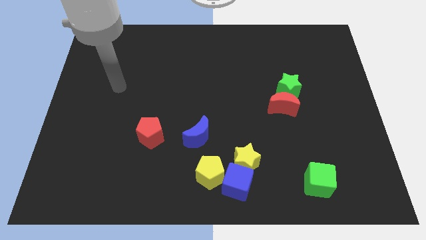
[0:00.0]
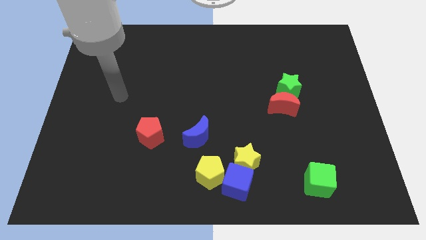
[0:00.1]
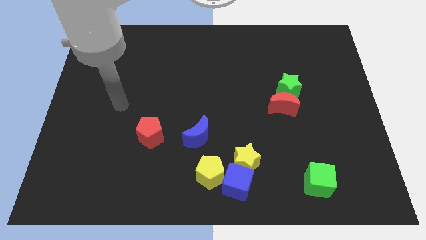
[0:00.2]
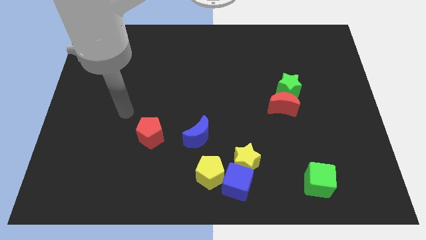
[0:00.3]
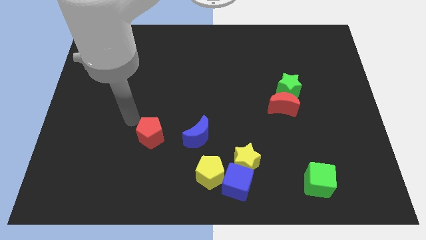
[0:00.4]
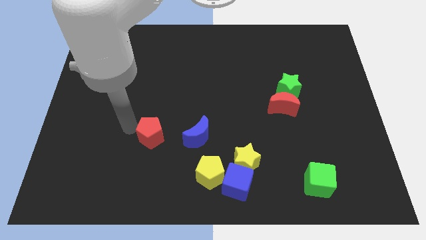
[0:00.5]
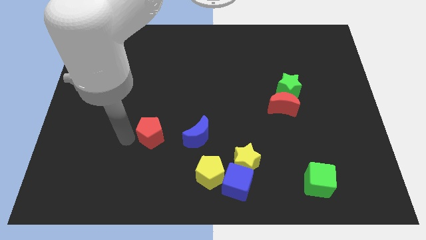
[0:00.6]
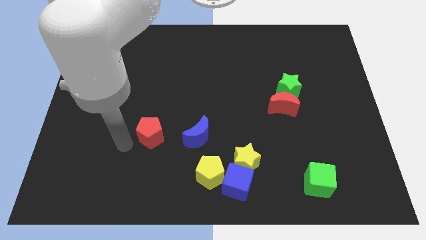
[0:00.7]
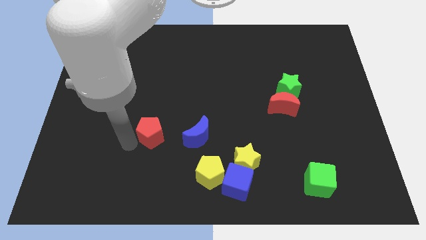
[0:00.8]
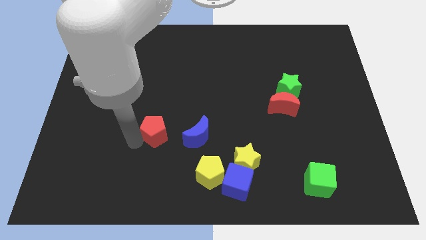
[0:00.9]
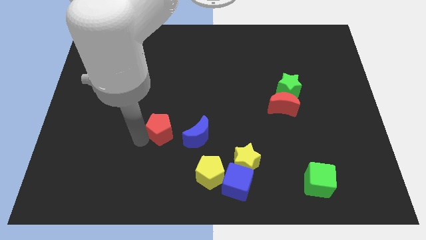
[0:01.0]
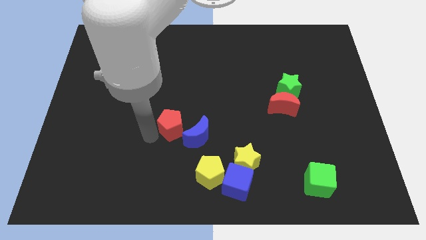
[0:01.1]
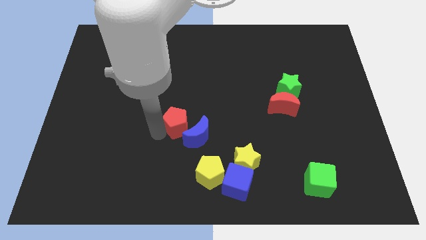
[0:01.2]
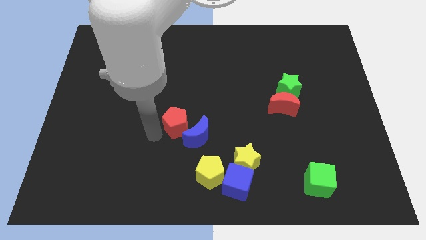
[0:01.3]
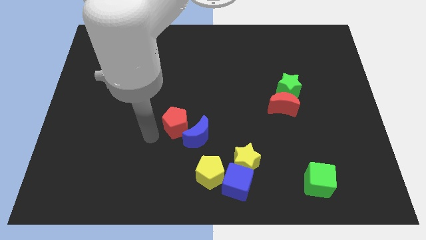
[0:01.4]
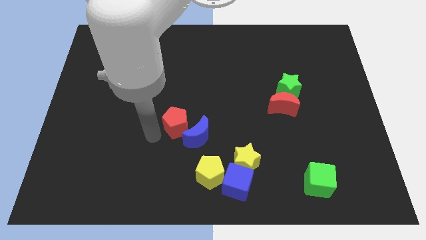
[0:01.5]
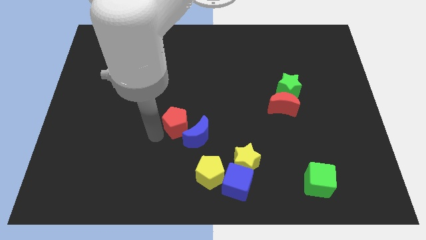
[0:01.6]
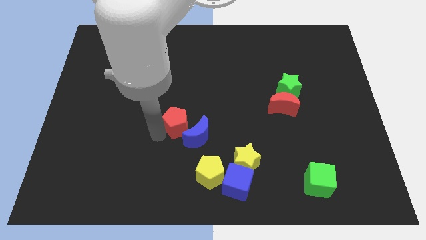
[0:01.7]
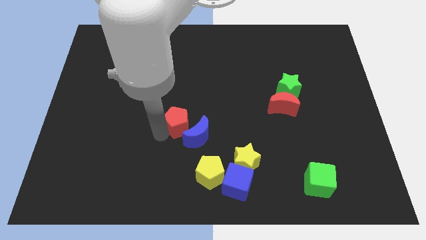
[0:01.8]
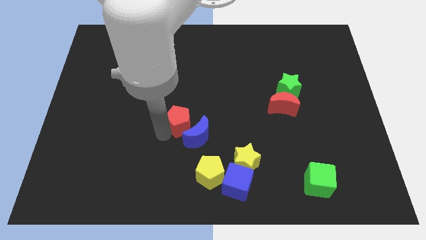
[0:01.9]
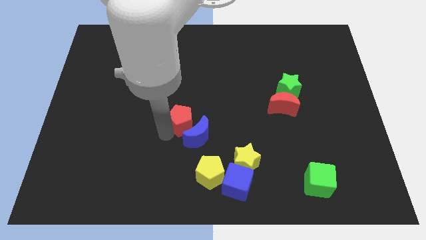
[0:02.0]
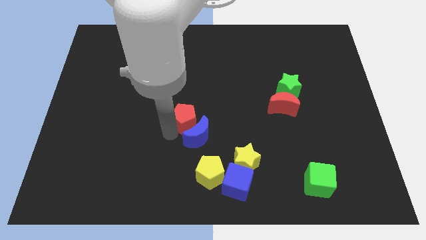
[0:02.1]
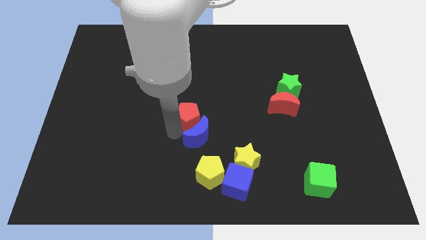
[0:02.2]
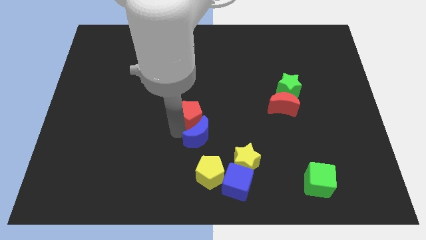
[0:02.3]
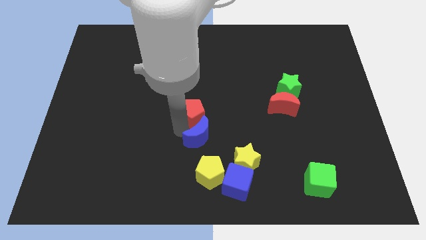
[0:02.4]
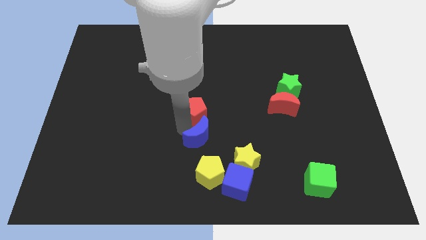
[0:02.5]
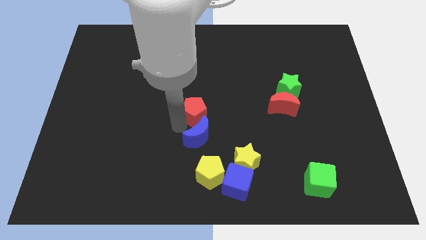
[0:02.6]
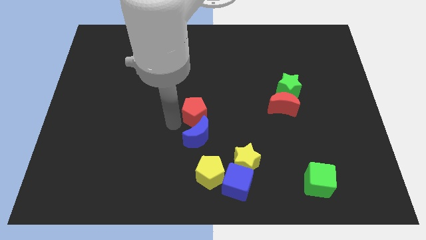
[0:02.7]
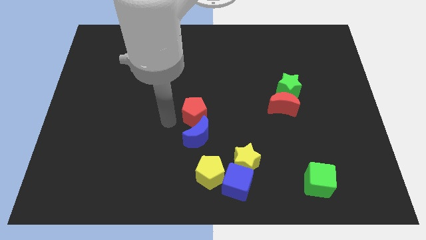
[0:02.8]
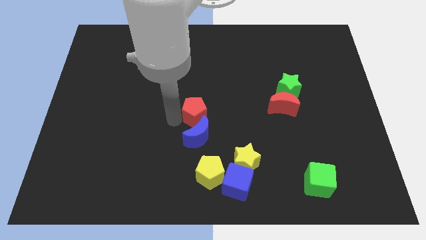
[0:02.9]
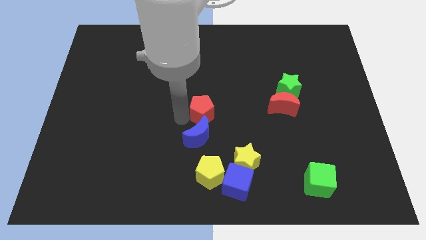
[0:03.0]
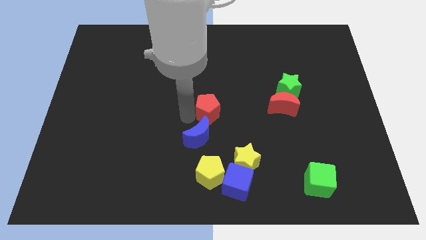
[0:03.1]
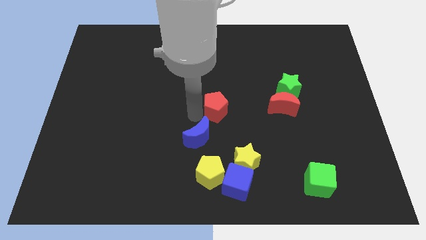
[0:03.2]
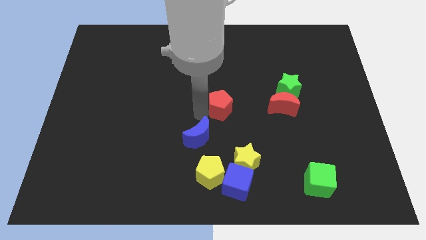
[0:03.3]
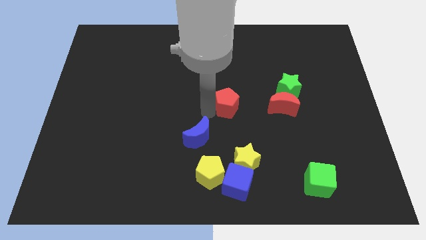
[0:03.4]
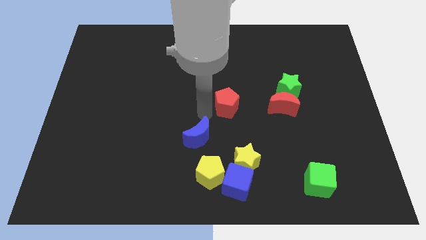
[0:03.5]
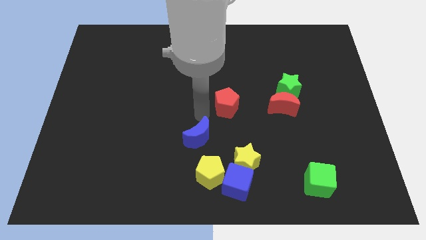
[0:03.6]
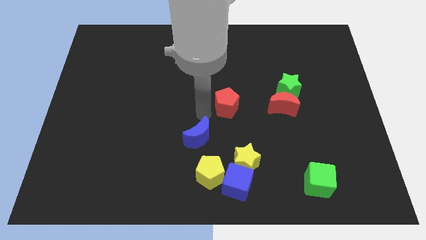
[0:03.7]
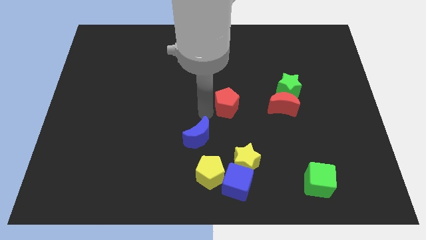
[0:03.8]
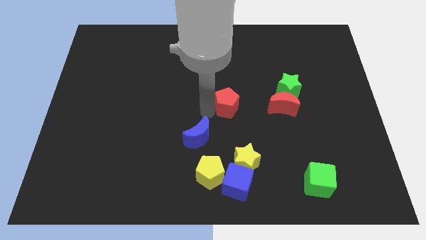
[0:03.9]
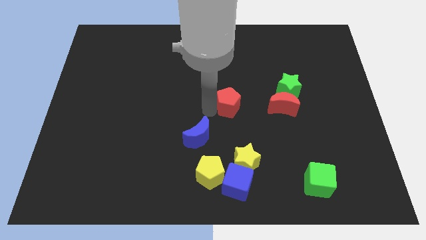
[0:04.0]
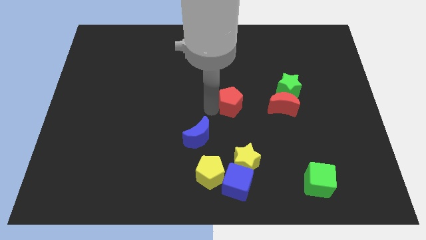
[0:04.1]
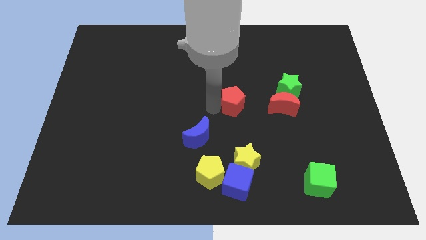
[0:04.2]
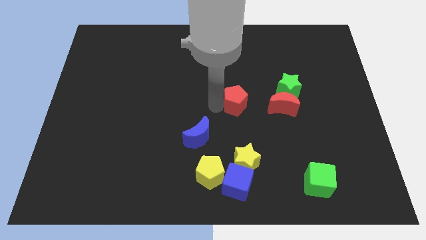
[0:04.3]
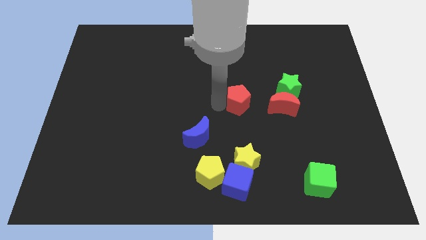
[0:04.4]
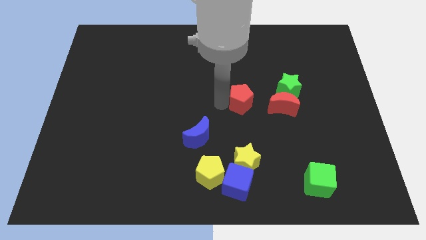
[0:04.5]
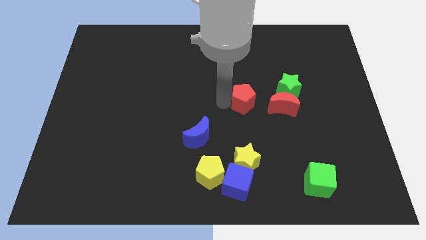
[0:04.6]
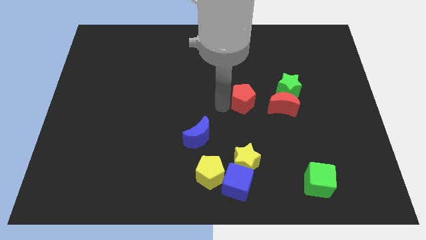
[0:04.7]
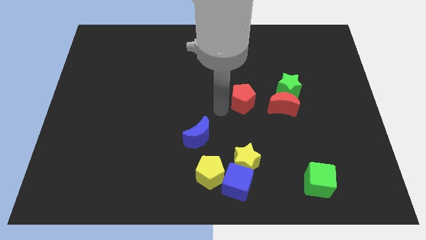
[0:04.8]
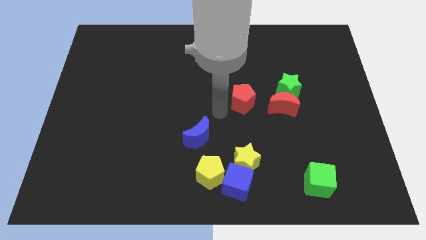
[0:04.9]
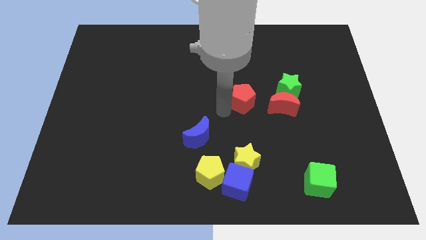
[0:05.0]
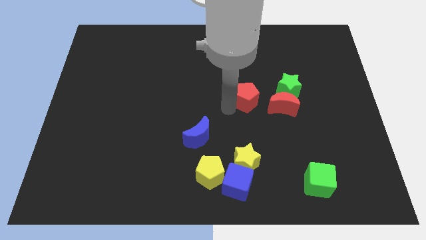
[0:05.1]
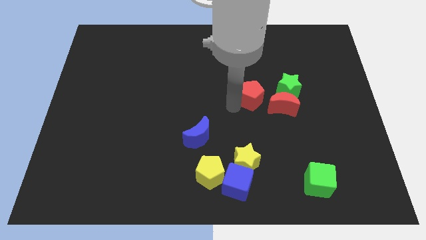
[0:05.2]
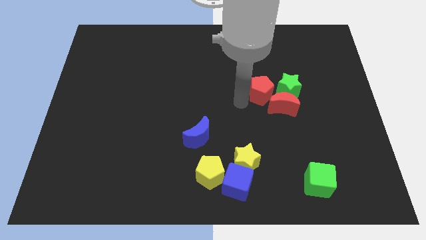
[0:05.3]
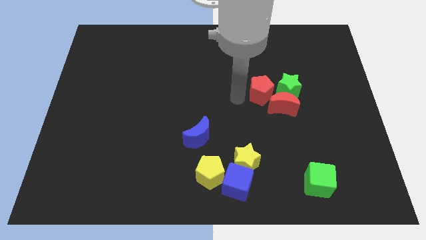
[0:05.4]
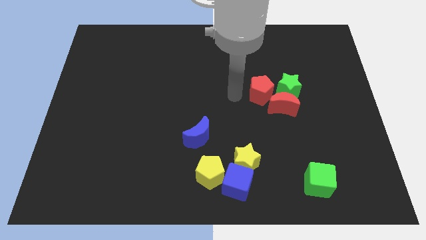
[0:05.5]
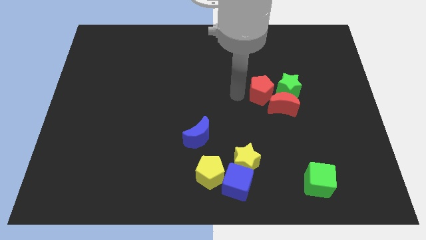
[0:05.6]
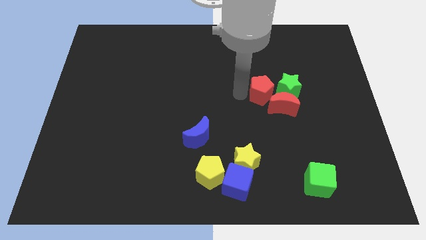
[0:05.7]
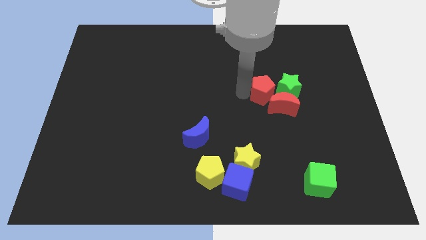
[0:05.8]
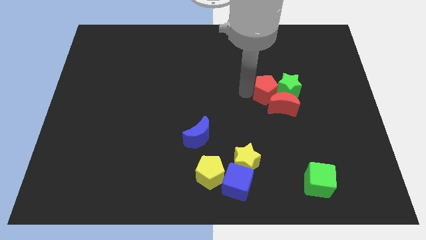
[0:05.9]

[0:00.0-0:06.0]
move the red pentagon towards the green star

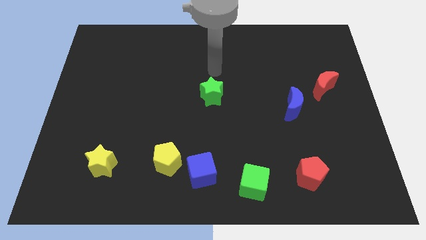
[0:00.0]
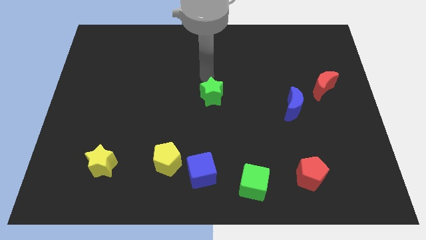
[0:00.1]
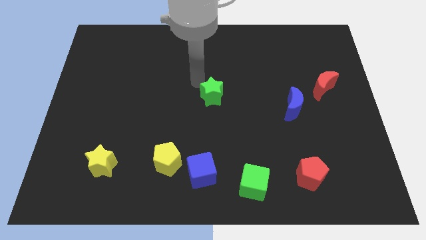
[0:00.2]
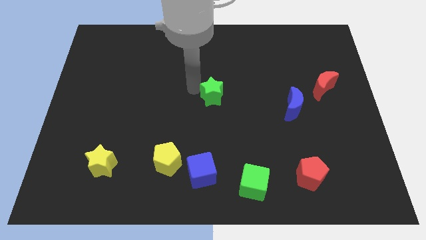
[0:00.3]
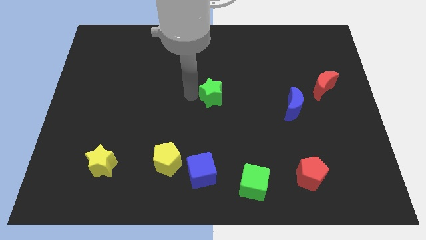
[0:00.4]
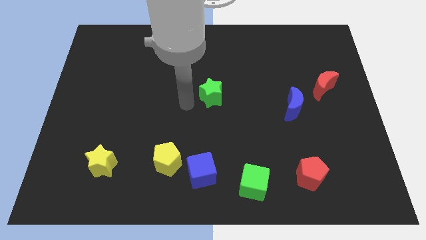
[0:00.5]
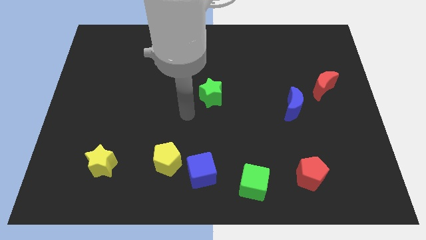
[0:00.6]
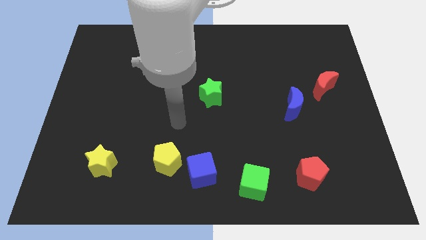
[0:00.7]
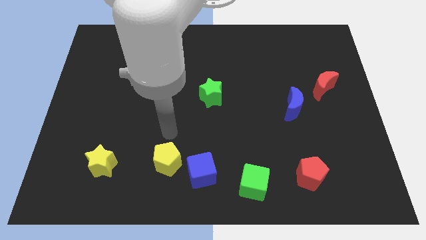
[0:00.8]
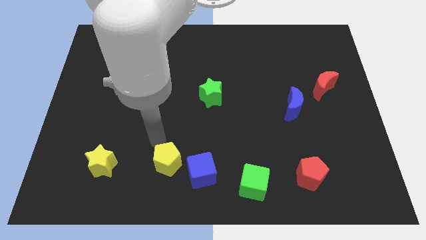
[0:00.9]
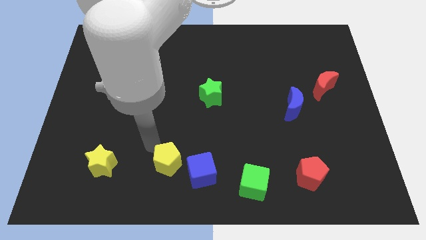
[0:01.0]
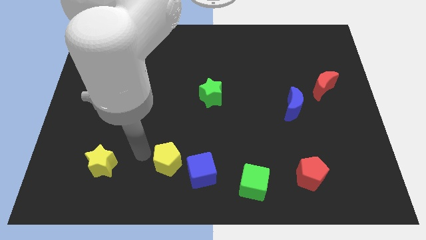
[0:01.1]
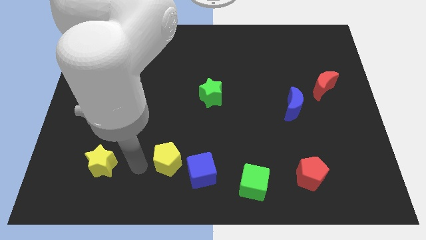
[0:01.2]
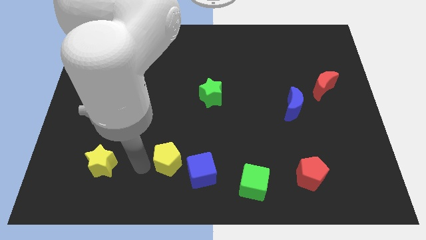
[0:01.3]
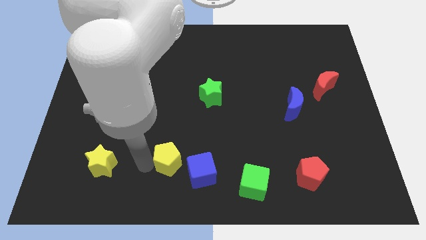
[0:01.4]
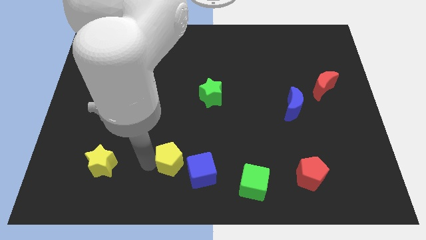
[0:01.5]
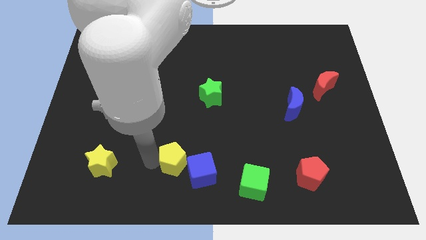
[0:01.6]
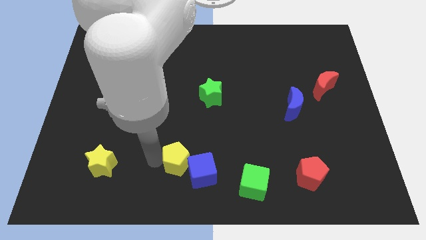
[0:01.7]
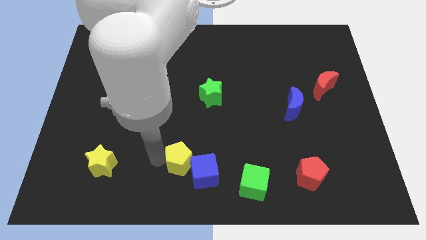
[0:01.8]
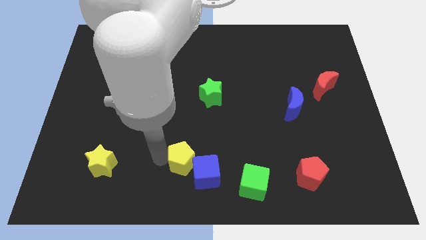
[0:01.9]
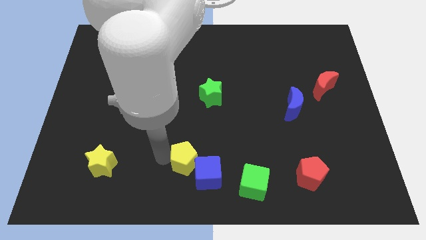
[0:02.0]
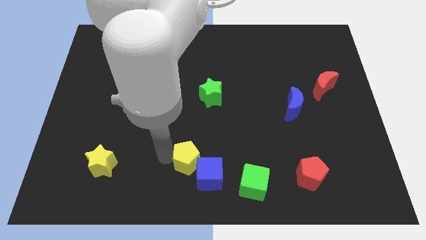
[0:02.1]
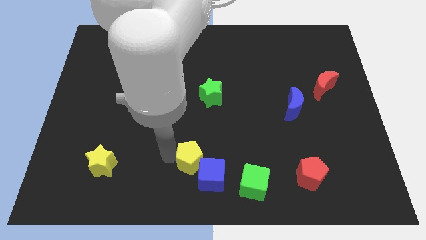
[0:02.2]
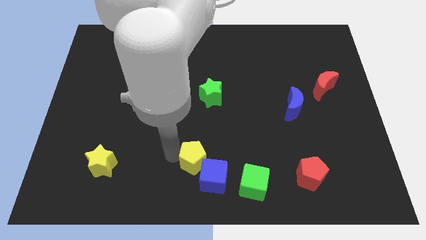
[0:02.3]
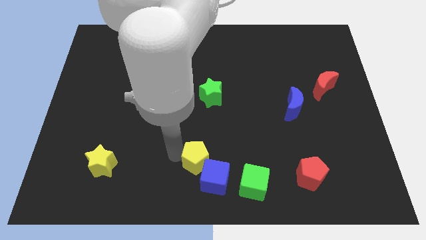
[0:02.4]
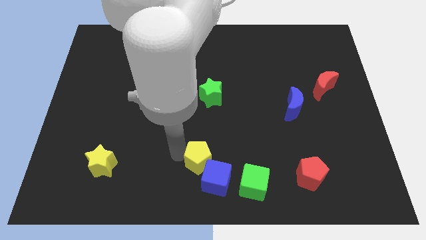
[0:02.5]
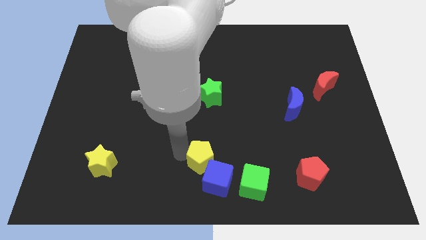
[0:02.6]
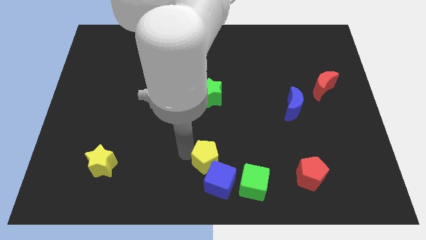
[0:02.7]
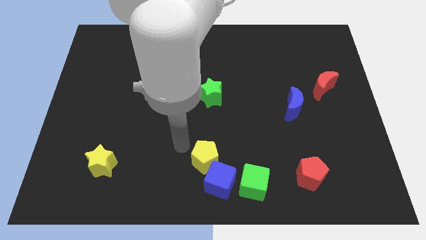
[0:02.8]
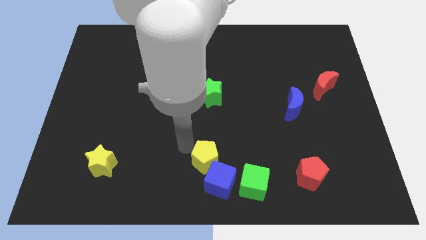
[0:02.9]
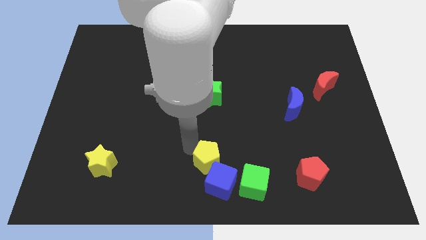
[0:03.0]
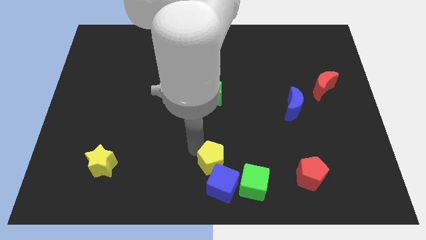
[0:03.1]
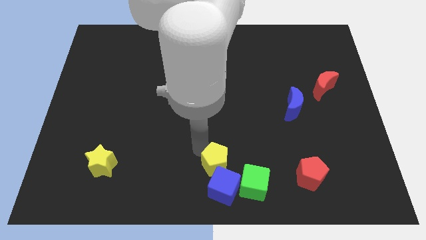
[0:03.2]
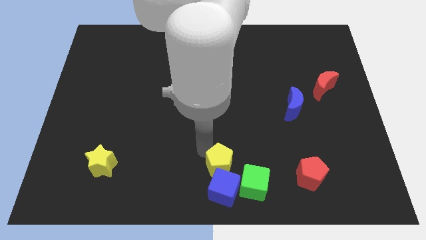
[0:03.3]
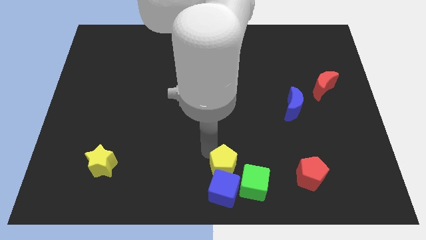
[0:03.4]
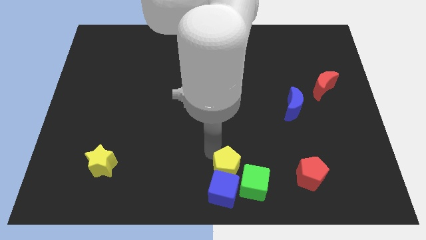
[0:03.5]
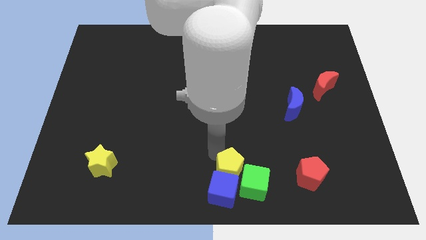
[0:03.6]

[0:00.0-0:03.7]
push the yellow pentagon towards the green cube
